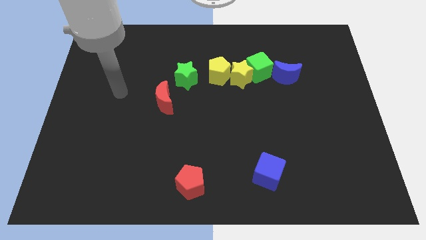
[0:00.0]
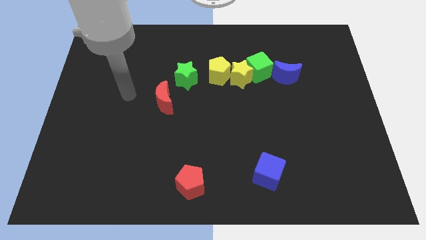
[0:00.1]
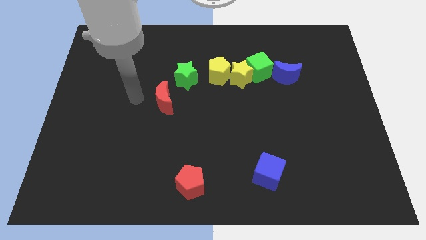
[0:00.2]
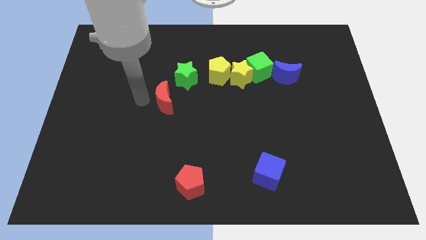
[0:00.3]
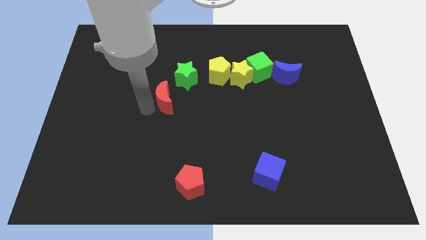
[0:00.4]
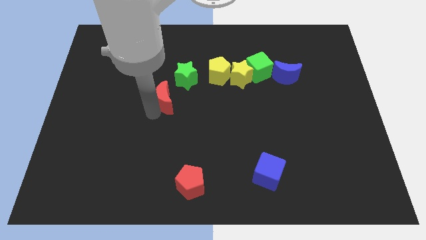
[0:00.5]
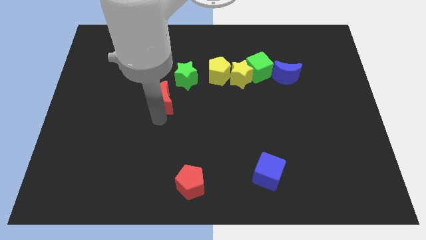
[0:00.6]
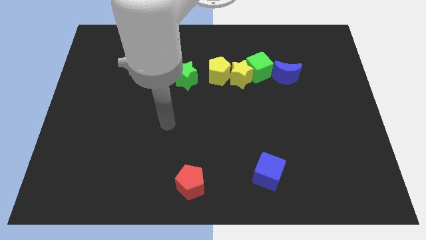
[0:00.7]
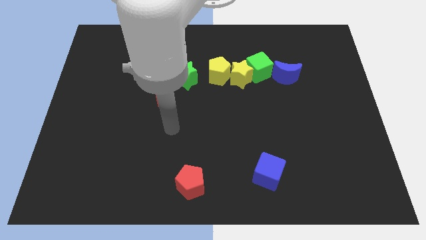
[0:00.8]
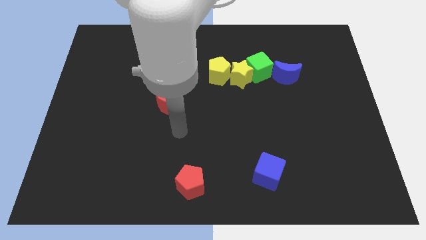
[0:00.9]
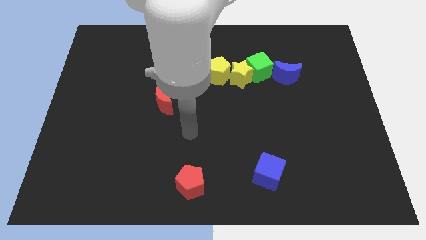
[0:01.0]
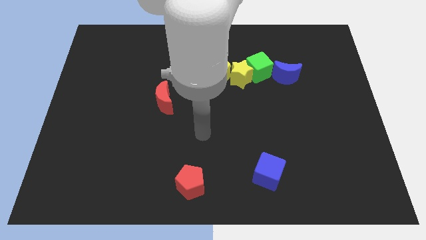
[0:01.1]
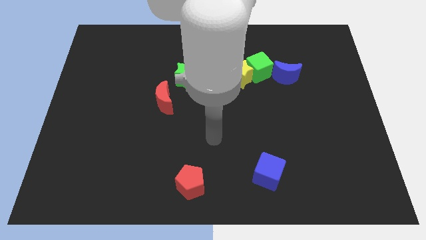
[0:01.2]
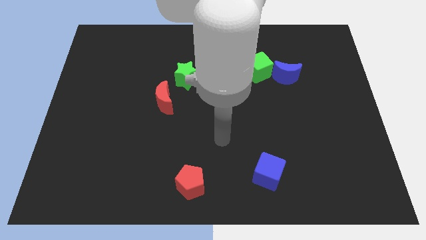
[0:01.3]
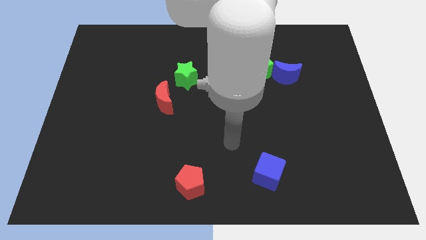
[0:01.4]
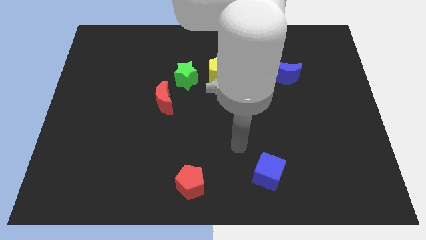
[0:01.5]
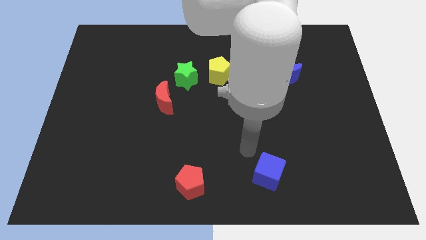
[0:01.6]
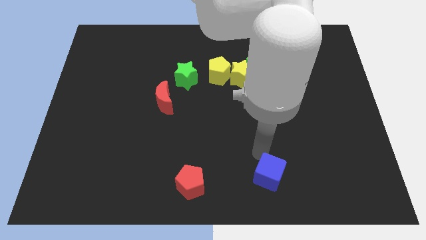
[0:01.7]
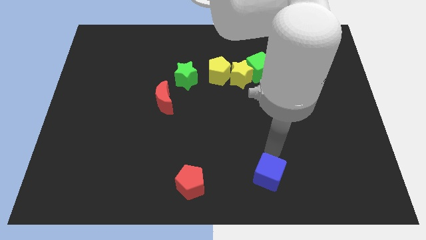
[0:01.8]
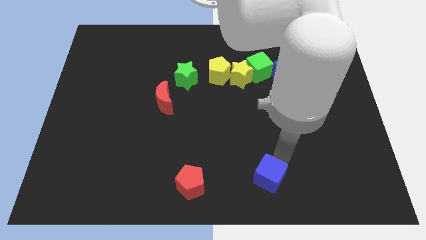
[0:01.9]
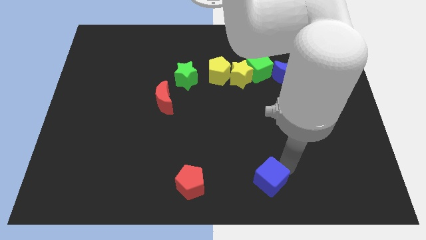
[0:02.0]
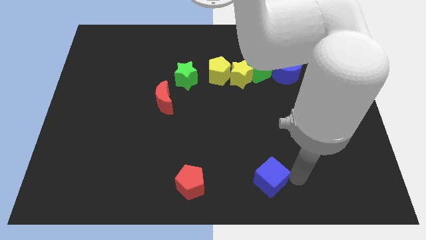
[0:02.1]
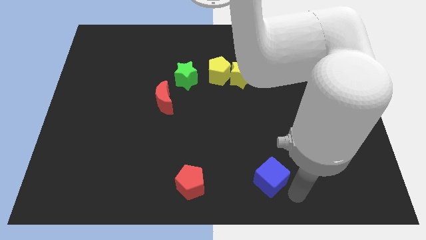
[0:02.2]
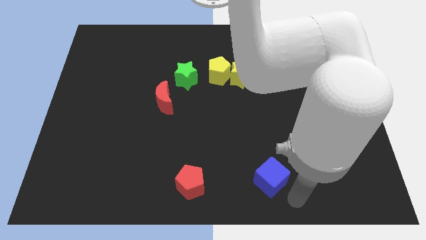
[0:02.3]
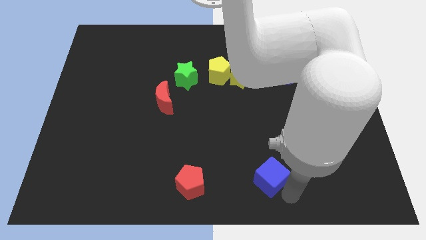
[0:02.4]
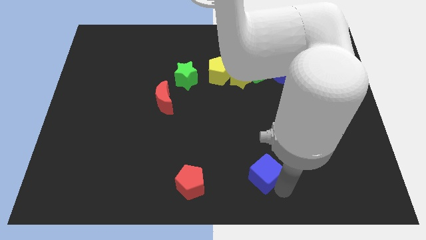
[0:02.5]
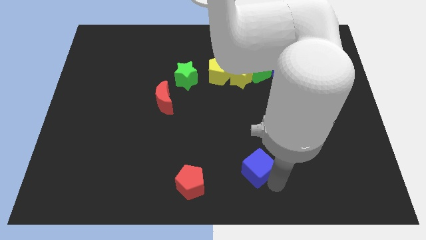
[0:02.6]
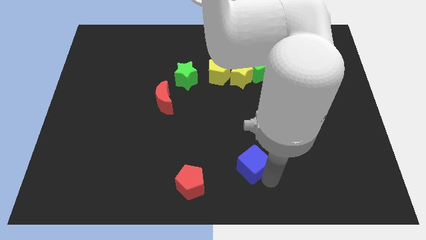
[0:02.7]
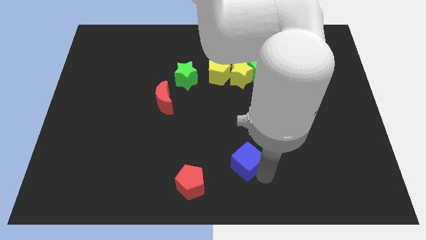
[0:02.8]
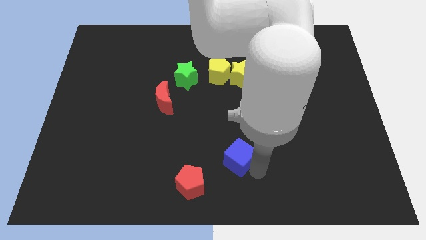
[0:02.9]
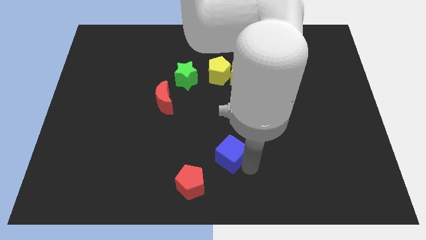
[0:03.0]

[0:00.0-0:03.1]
slightly move the blue cube upwards and then left

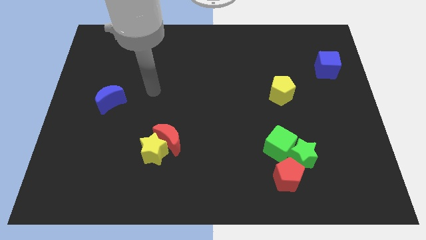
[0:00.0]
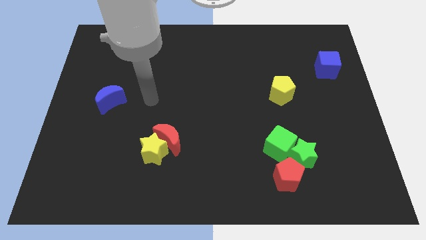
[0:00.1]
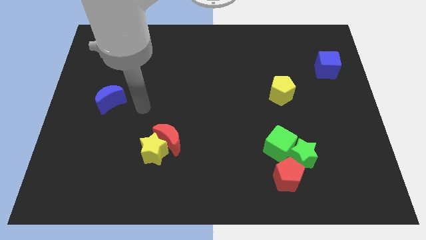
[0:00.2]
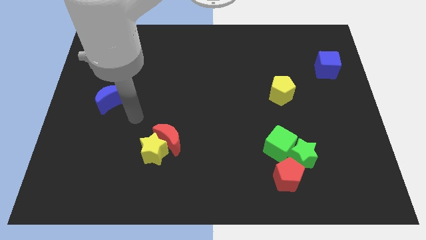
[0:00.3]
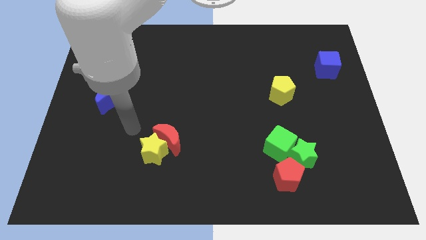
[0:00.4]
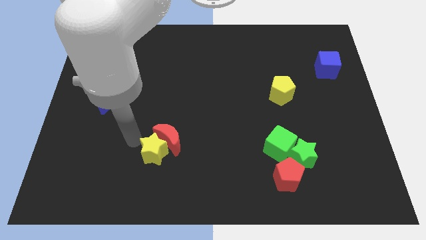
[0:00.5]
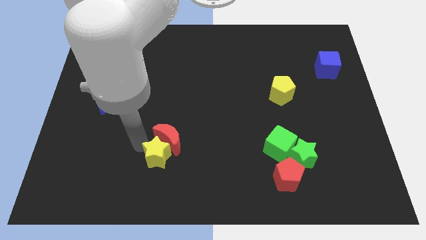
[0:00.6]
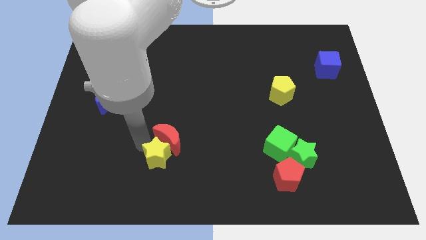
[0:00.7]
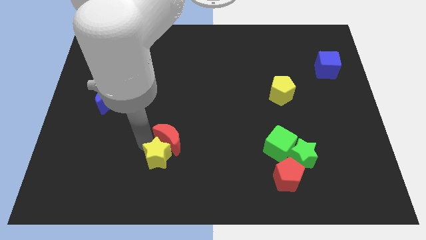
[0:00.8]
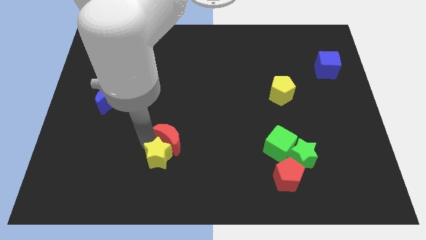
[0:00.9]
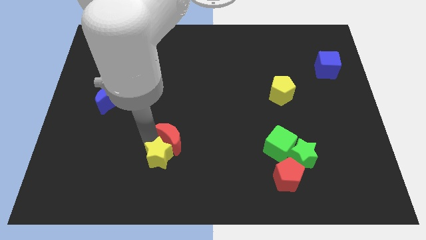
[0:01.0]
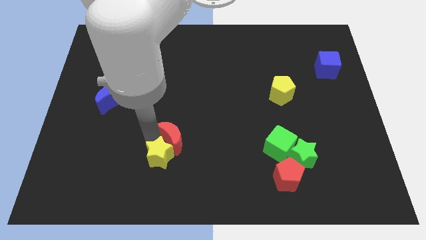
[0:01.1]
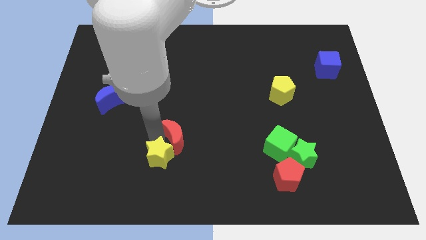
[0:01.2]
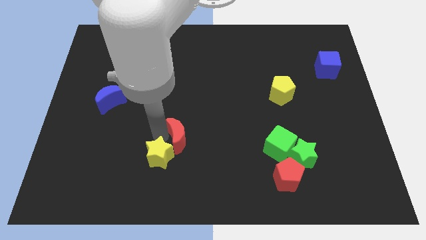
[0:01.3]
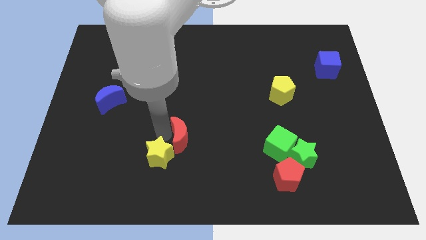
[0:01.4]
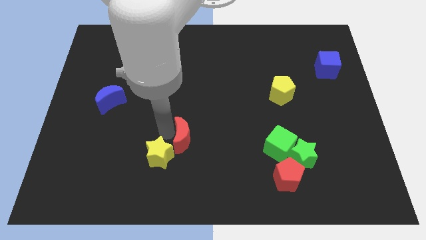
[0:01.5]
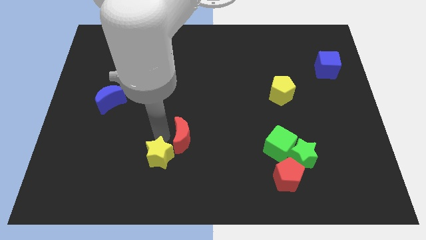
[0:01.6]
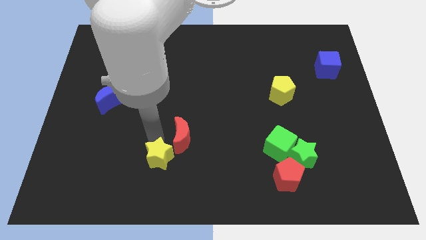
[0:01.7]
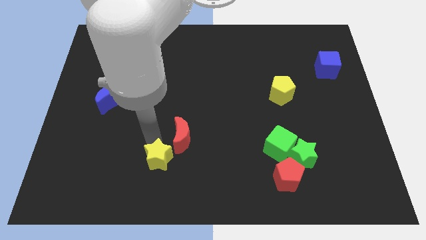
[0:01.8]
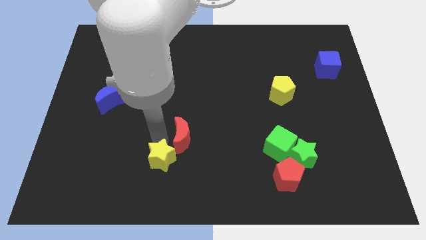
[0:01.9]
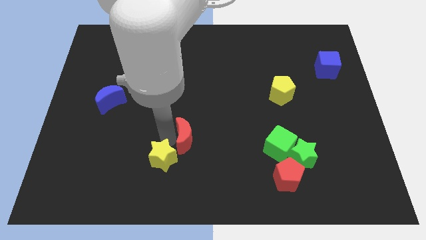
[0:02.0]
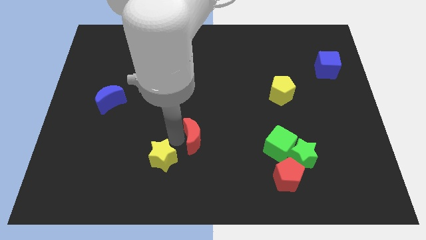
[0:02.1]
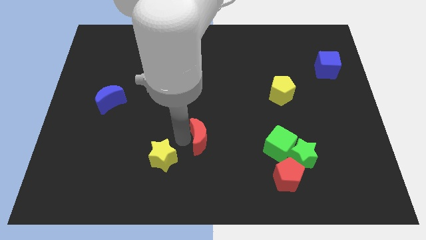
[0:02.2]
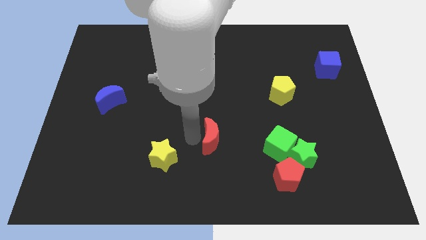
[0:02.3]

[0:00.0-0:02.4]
slide the red moon to the right a little bit

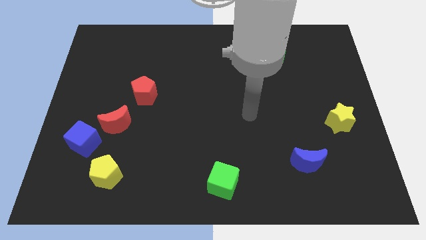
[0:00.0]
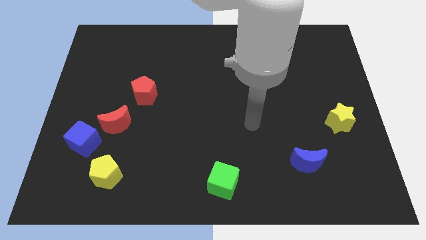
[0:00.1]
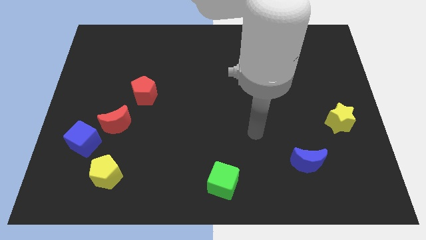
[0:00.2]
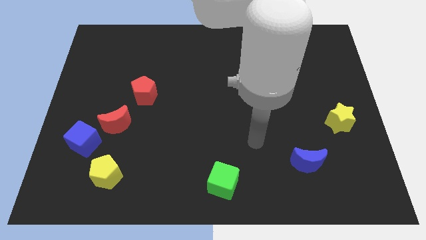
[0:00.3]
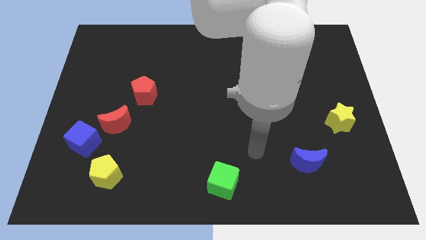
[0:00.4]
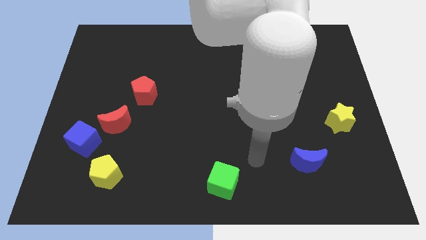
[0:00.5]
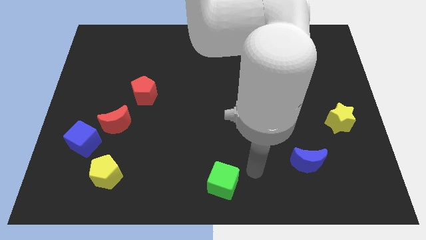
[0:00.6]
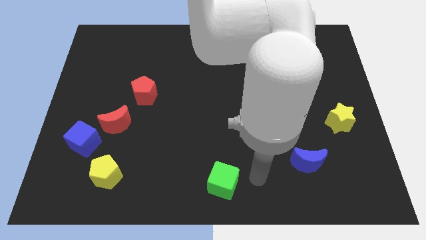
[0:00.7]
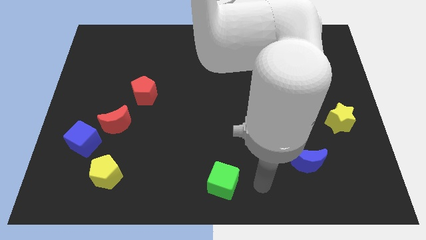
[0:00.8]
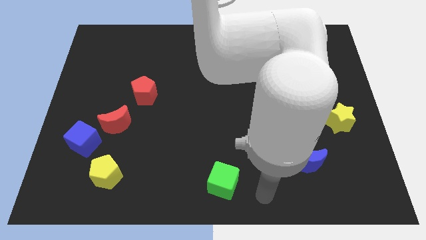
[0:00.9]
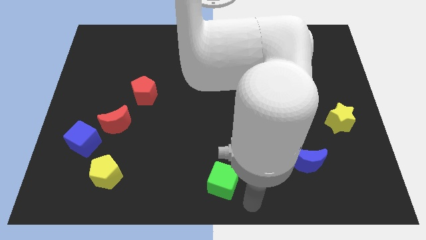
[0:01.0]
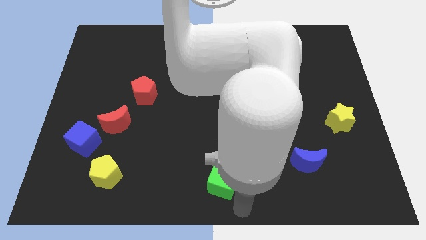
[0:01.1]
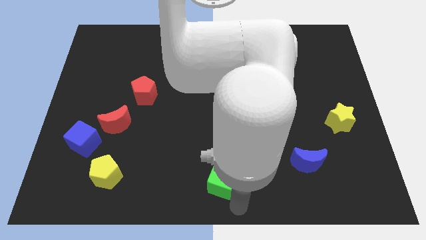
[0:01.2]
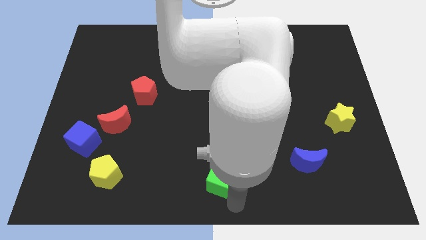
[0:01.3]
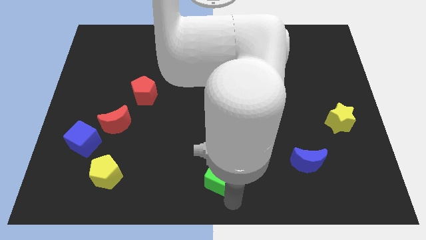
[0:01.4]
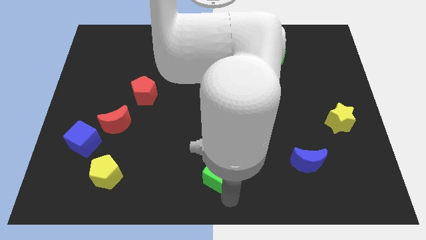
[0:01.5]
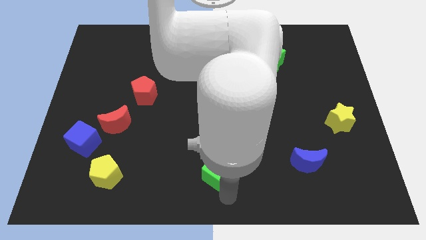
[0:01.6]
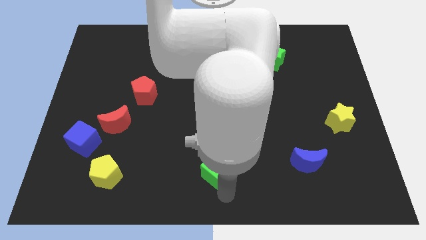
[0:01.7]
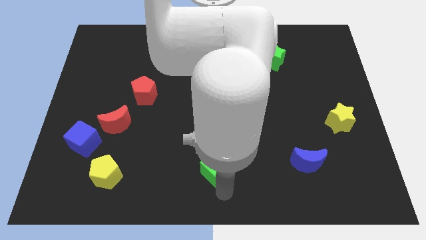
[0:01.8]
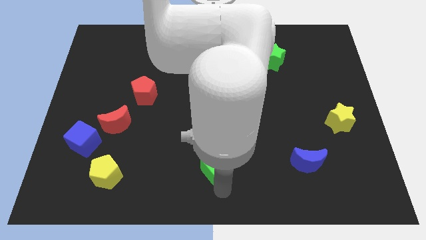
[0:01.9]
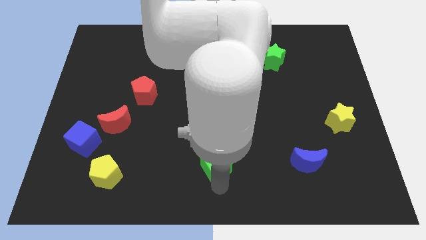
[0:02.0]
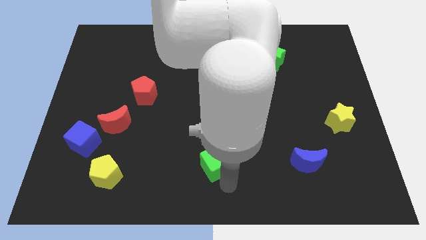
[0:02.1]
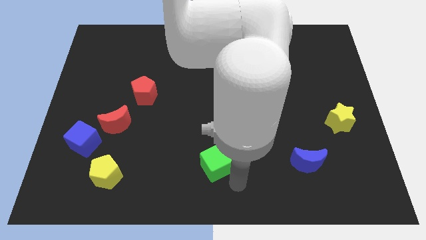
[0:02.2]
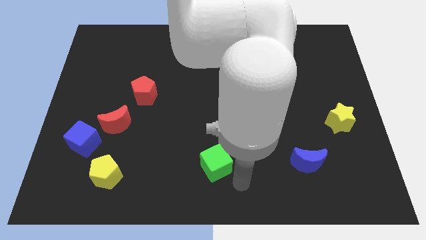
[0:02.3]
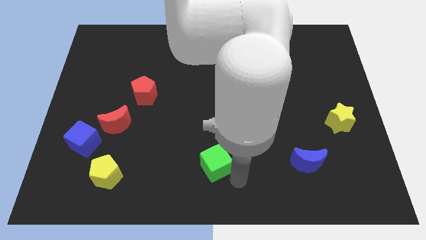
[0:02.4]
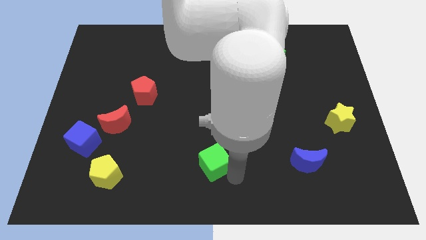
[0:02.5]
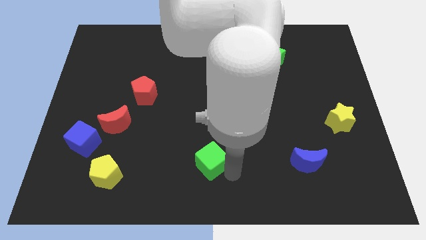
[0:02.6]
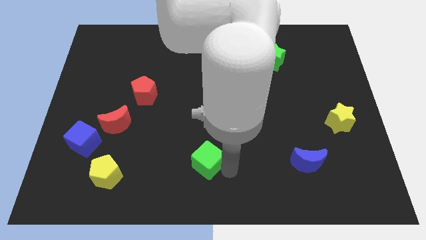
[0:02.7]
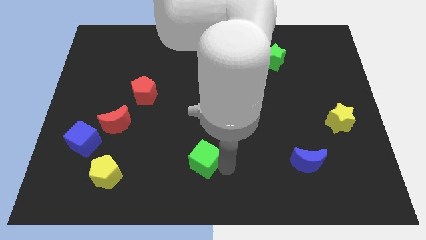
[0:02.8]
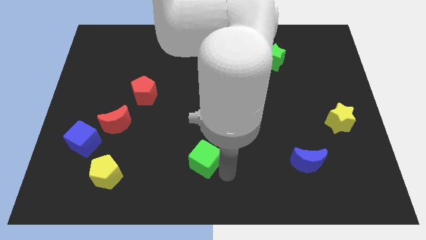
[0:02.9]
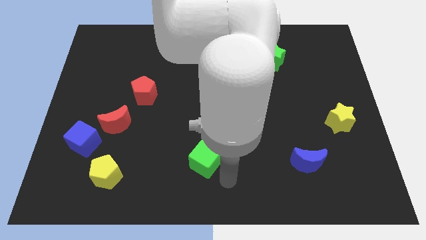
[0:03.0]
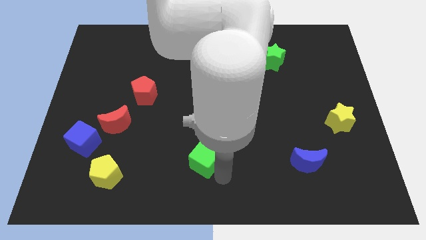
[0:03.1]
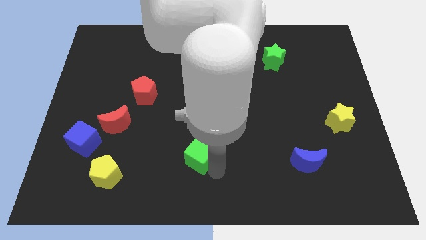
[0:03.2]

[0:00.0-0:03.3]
slide the green cube diagonally upwards and left a bit
